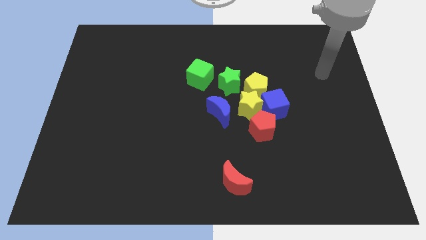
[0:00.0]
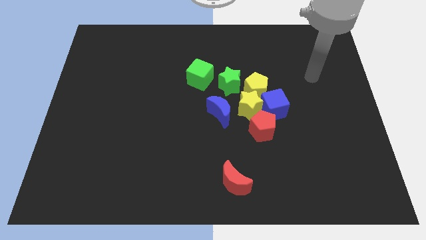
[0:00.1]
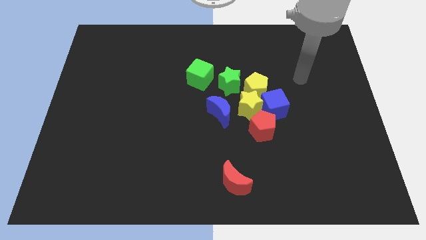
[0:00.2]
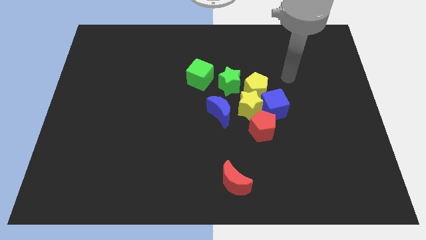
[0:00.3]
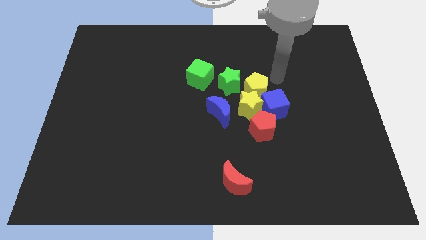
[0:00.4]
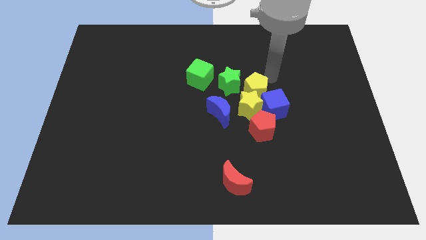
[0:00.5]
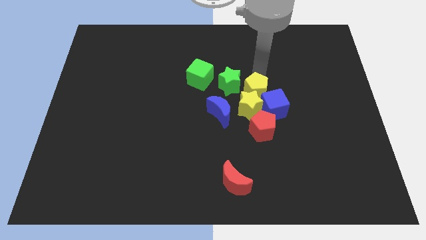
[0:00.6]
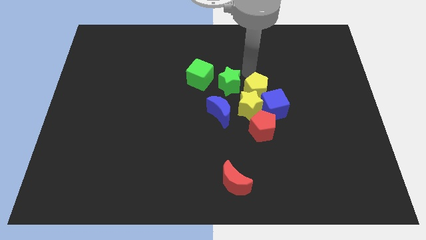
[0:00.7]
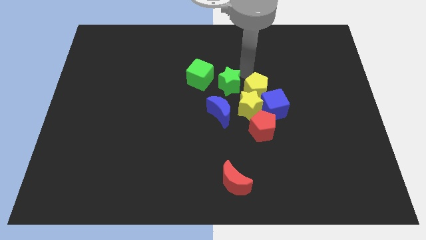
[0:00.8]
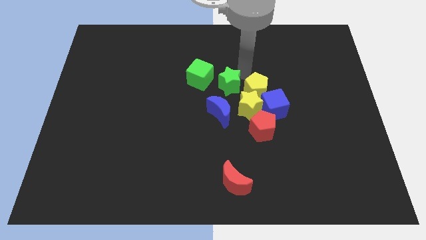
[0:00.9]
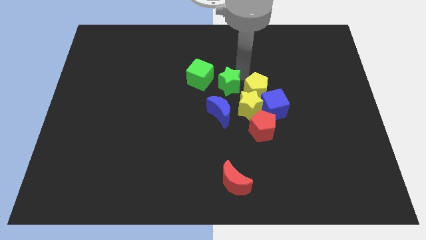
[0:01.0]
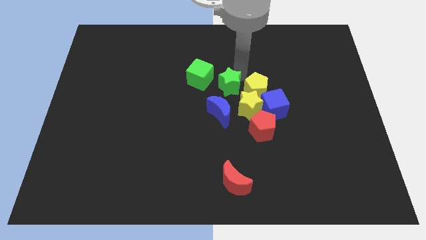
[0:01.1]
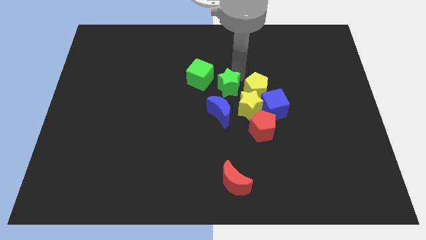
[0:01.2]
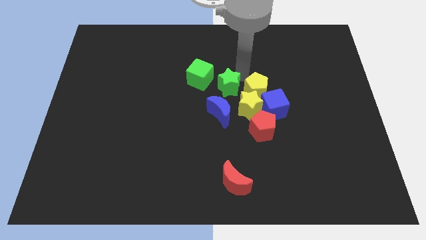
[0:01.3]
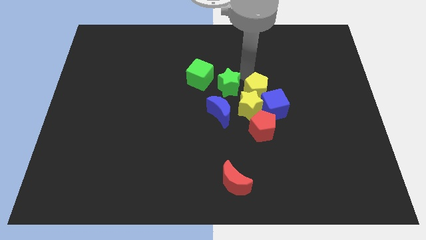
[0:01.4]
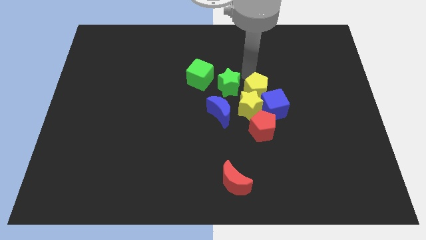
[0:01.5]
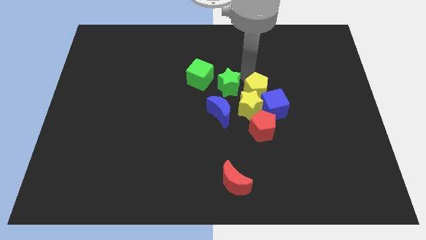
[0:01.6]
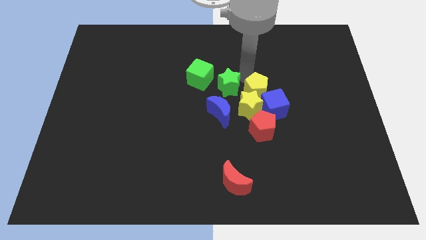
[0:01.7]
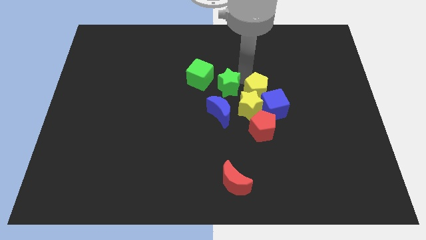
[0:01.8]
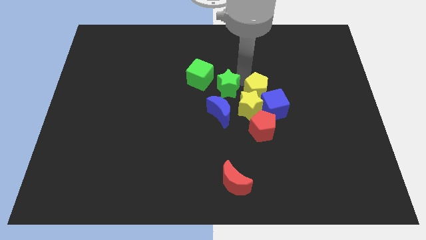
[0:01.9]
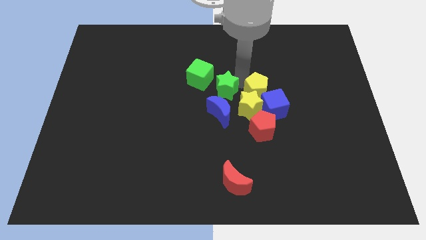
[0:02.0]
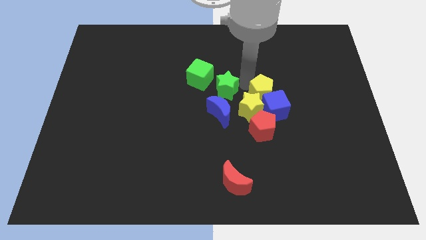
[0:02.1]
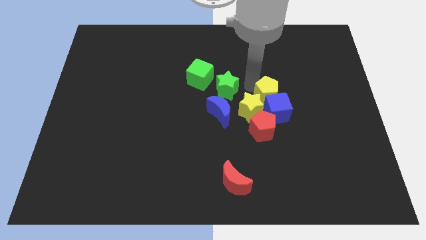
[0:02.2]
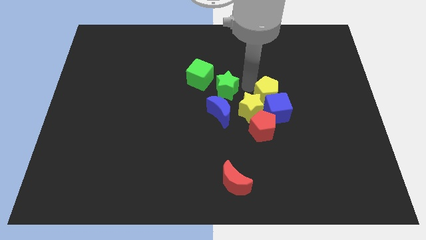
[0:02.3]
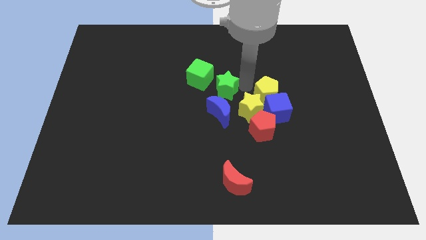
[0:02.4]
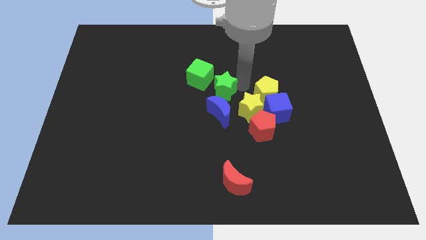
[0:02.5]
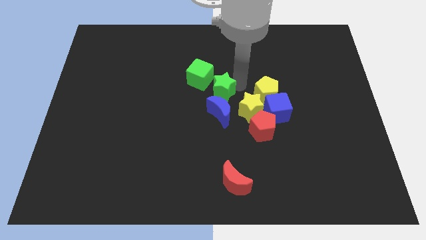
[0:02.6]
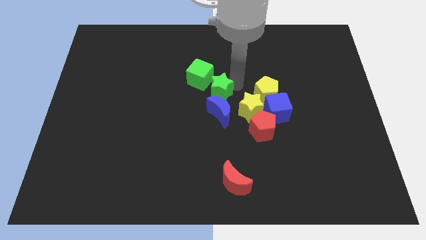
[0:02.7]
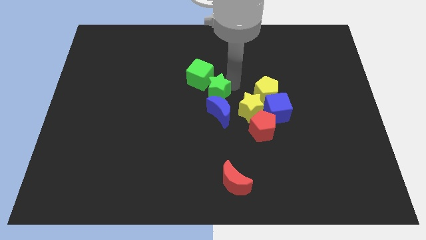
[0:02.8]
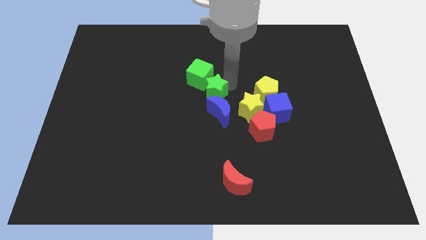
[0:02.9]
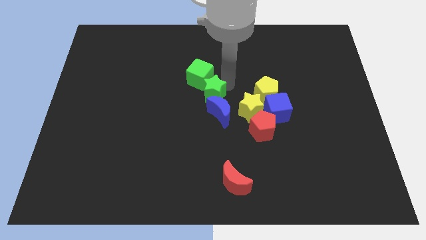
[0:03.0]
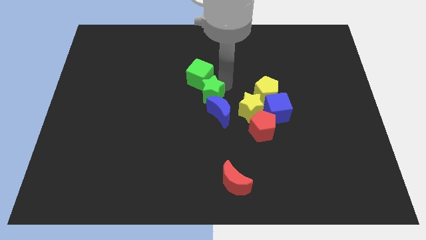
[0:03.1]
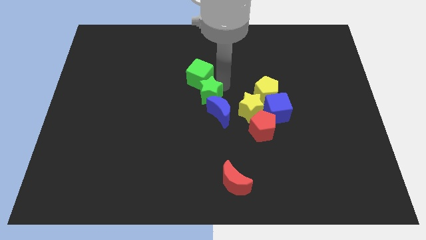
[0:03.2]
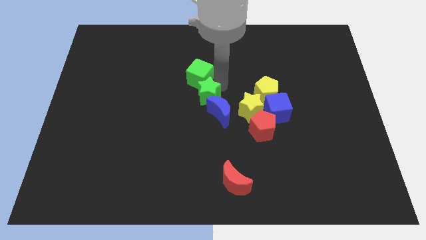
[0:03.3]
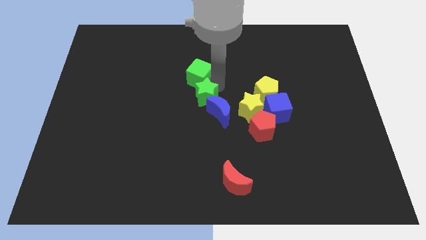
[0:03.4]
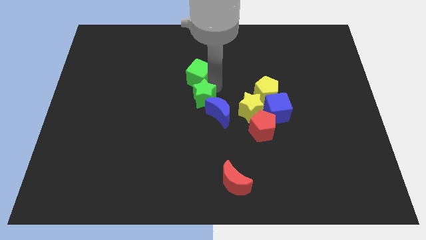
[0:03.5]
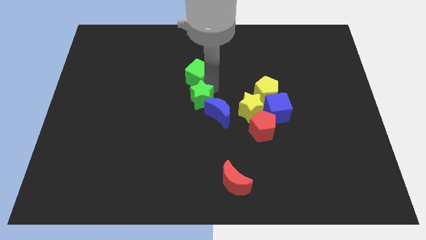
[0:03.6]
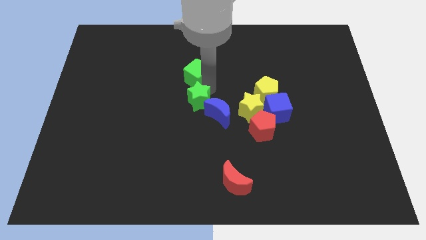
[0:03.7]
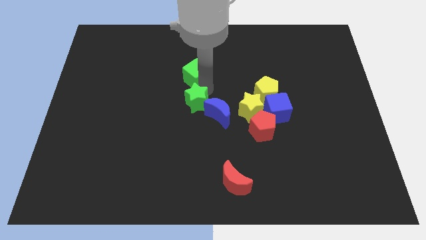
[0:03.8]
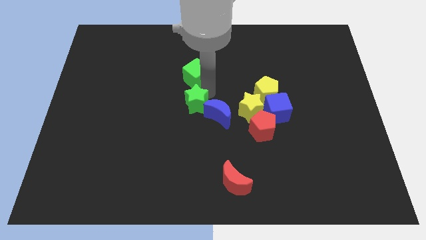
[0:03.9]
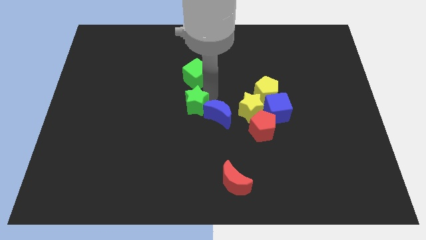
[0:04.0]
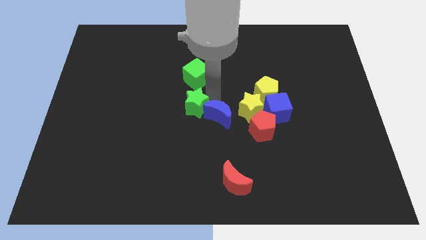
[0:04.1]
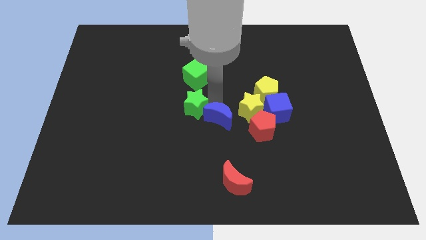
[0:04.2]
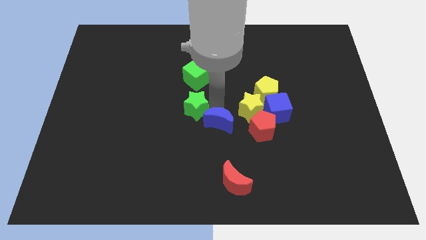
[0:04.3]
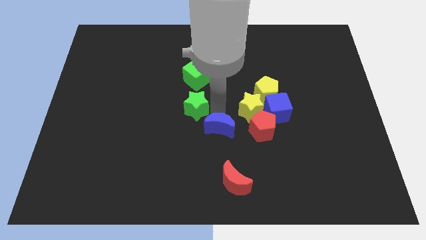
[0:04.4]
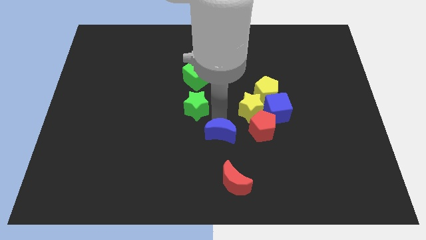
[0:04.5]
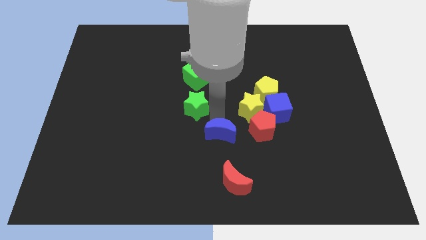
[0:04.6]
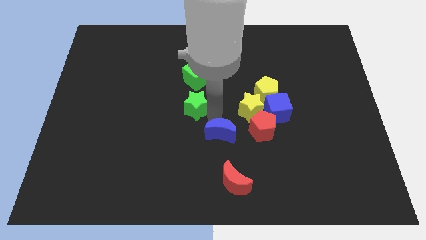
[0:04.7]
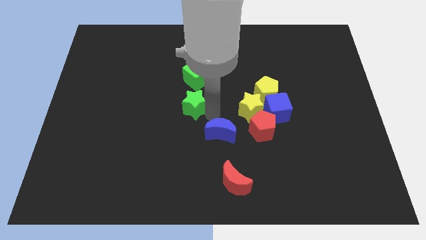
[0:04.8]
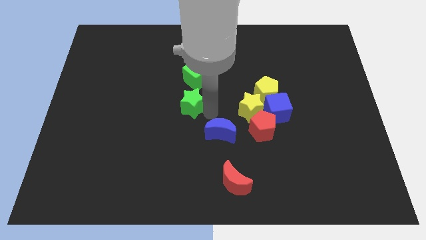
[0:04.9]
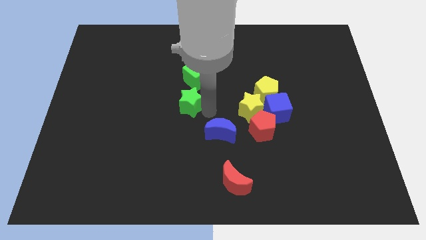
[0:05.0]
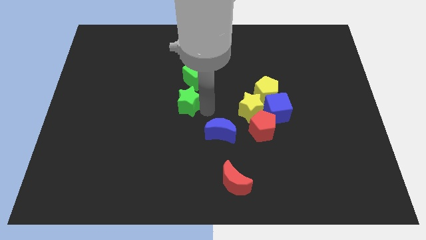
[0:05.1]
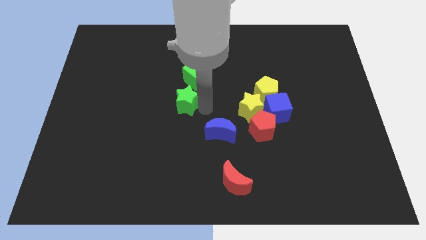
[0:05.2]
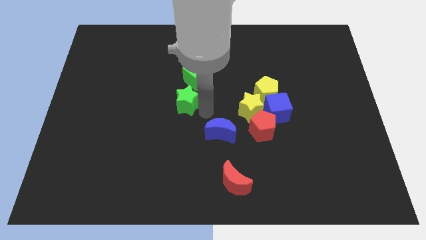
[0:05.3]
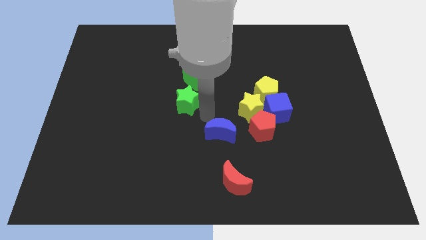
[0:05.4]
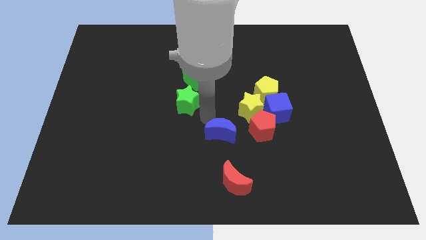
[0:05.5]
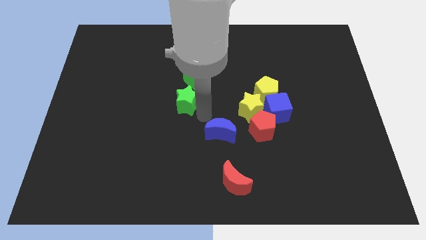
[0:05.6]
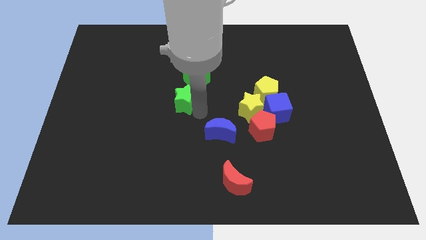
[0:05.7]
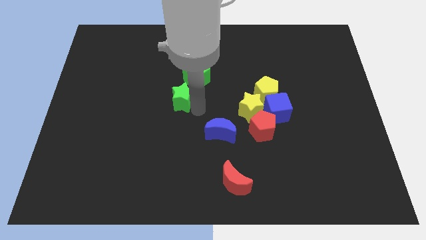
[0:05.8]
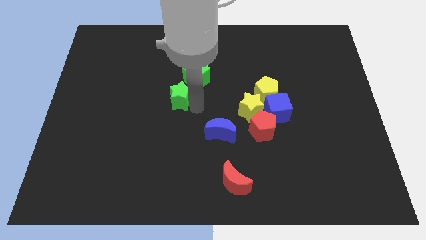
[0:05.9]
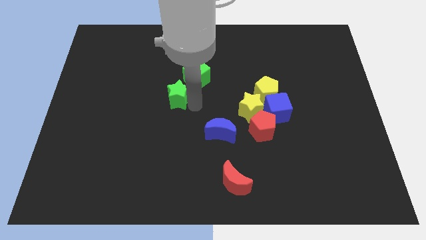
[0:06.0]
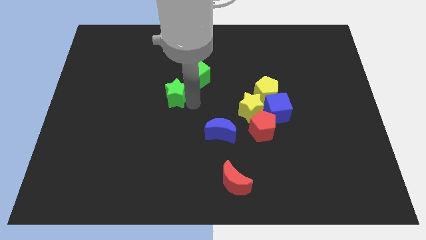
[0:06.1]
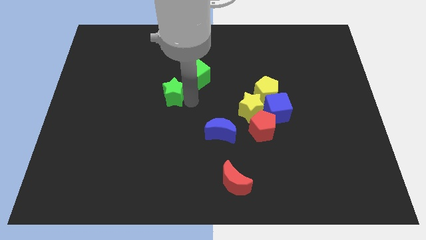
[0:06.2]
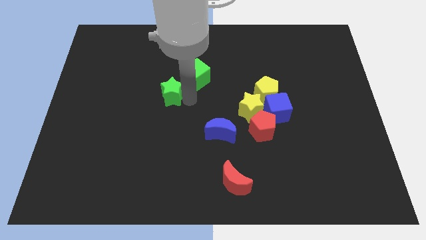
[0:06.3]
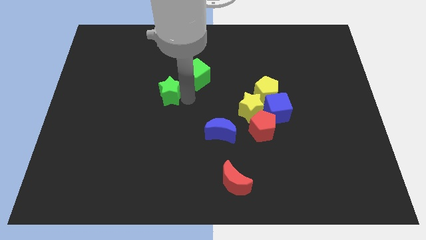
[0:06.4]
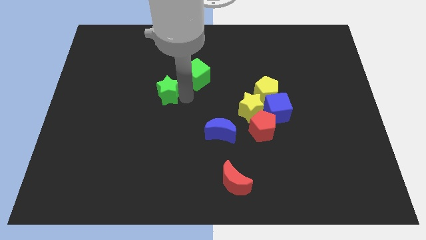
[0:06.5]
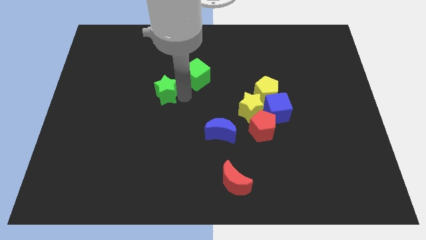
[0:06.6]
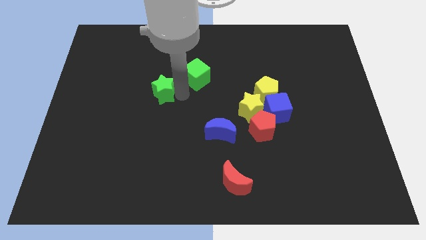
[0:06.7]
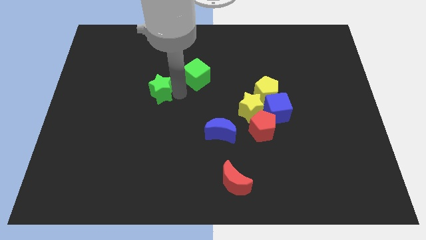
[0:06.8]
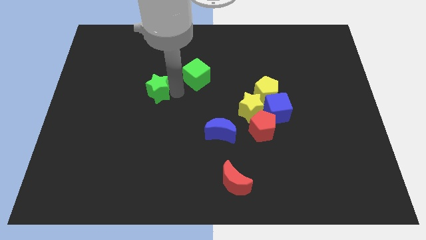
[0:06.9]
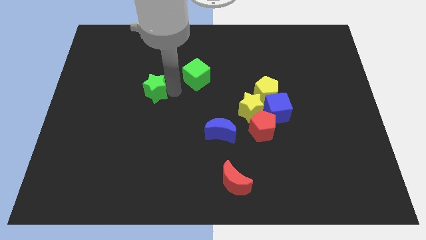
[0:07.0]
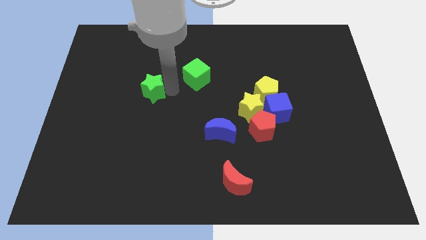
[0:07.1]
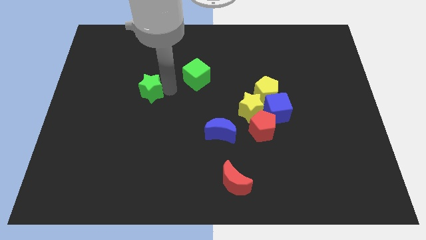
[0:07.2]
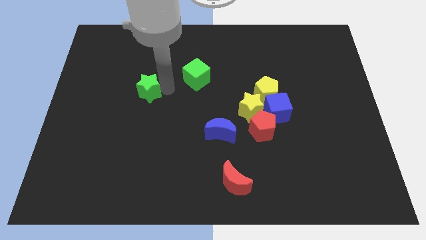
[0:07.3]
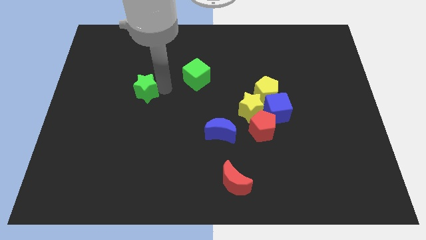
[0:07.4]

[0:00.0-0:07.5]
move the green star to the left

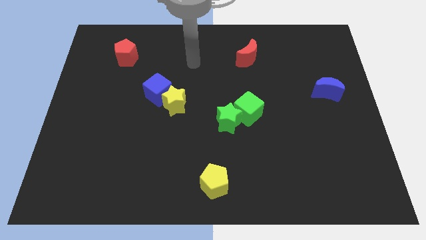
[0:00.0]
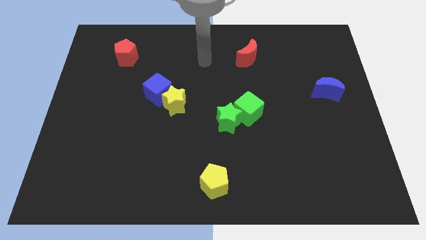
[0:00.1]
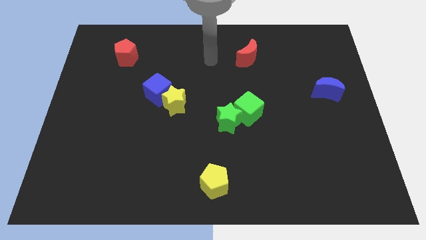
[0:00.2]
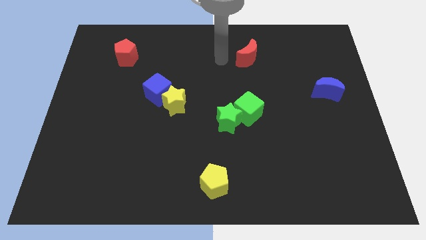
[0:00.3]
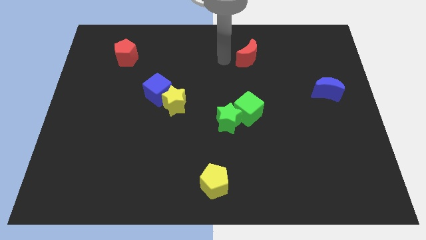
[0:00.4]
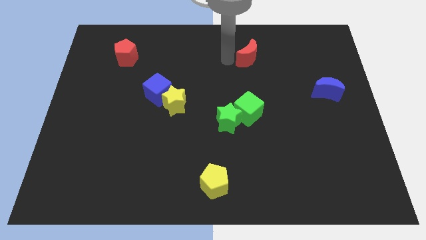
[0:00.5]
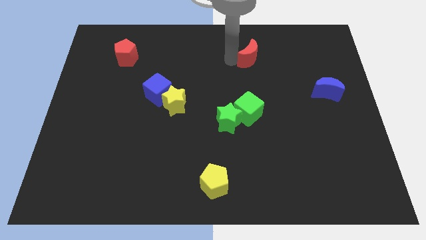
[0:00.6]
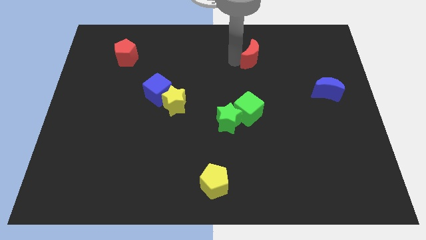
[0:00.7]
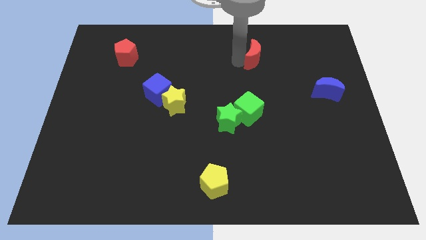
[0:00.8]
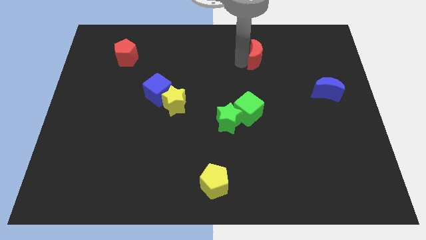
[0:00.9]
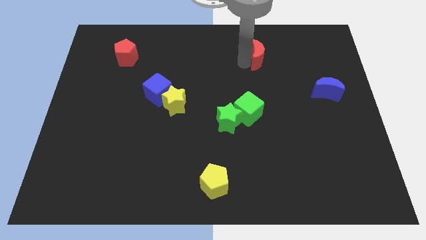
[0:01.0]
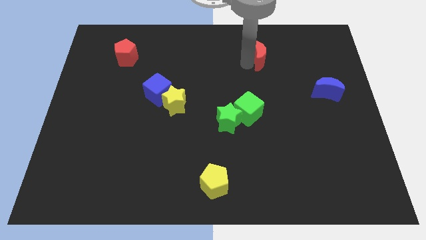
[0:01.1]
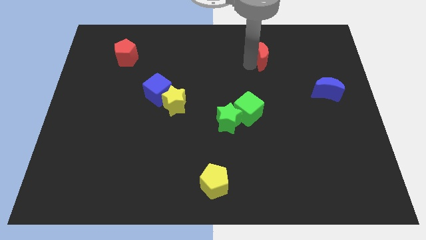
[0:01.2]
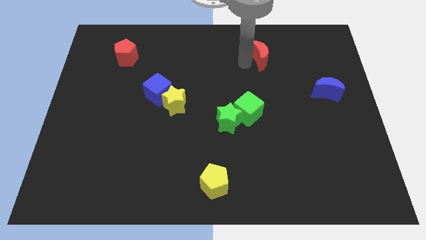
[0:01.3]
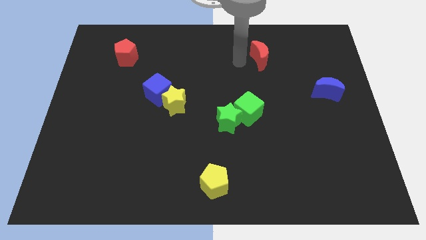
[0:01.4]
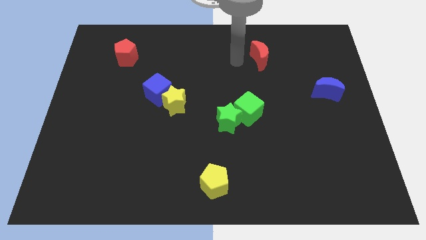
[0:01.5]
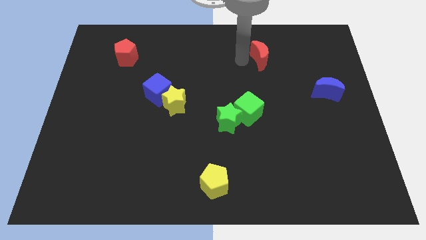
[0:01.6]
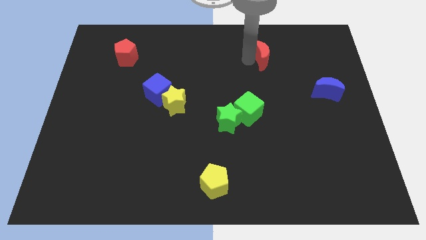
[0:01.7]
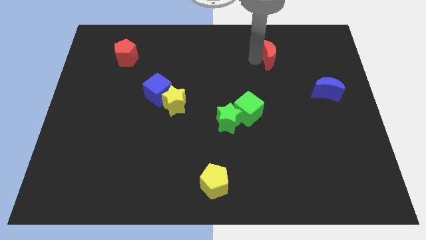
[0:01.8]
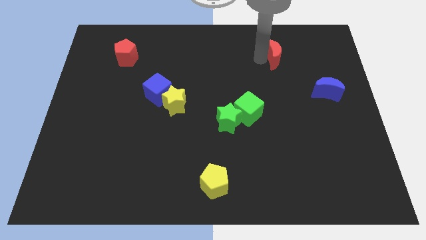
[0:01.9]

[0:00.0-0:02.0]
push the red moon somewhat right
